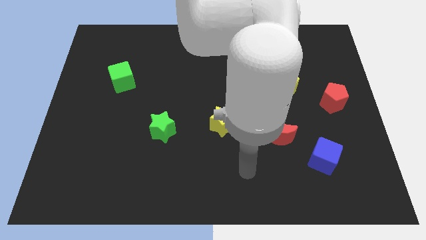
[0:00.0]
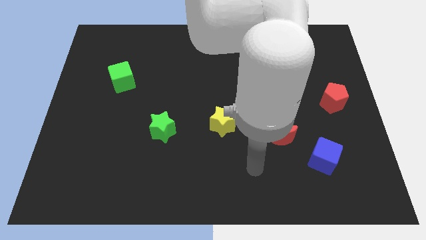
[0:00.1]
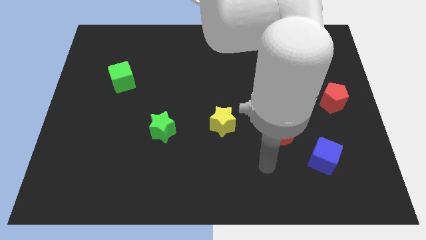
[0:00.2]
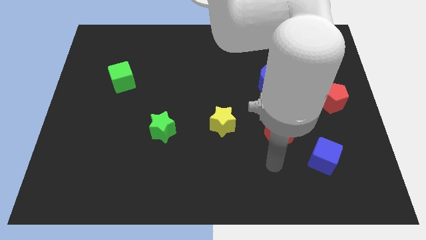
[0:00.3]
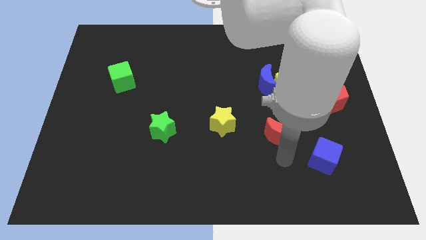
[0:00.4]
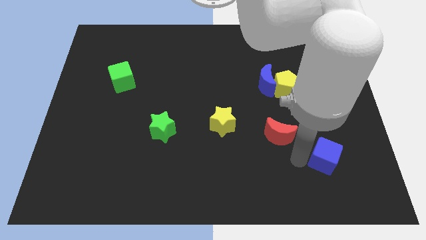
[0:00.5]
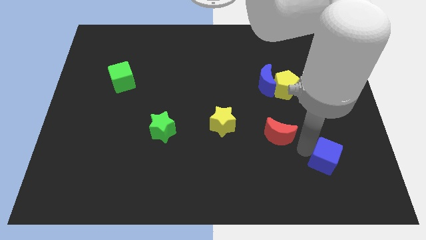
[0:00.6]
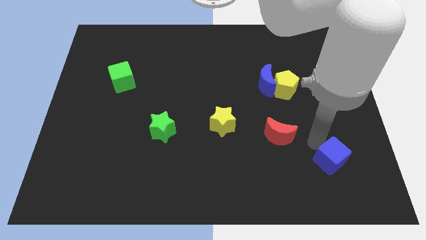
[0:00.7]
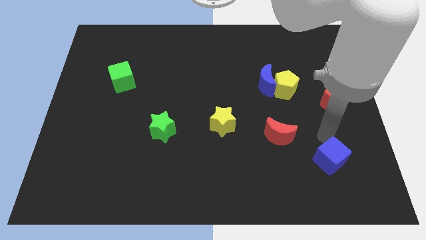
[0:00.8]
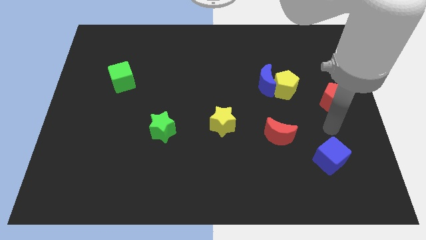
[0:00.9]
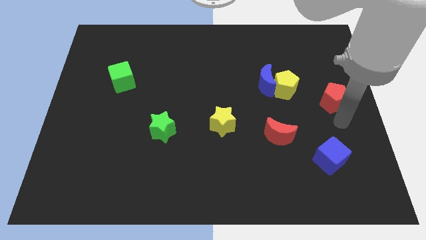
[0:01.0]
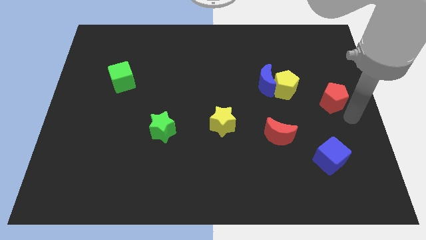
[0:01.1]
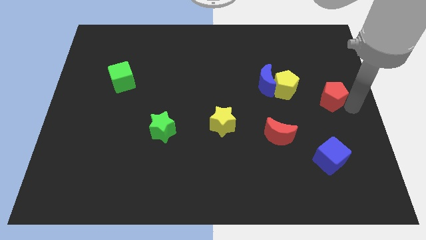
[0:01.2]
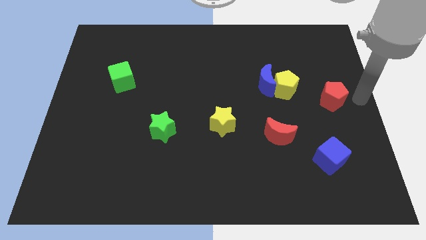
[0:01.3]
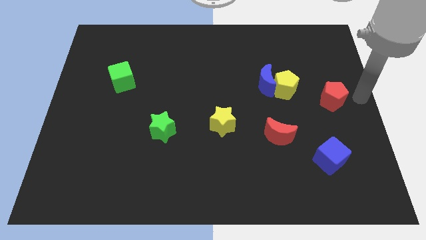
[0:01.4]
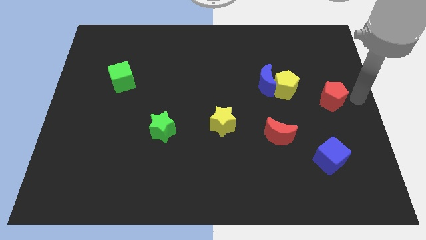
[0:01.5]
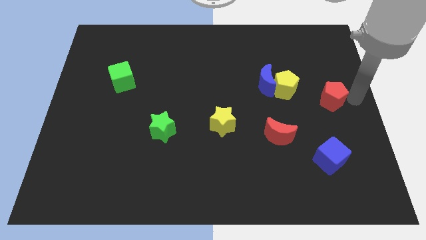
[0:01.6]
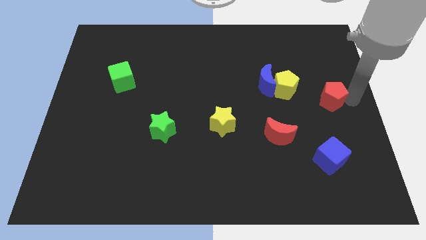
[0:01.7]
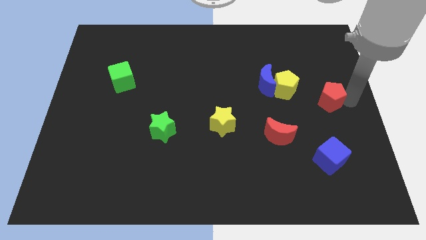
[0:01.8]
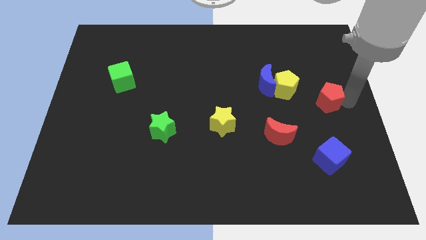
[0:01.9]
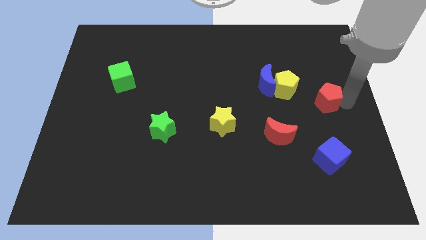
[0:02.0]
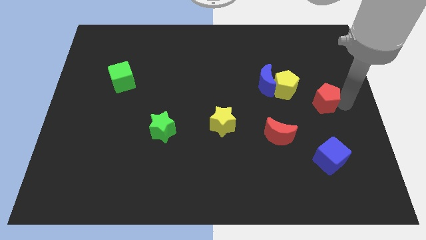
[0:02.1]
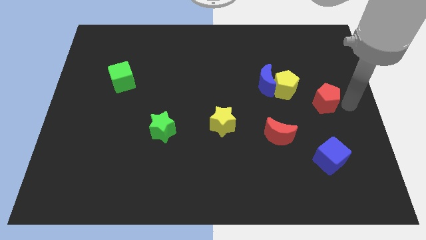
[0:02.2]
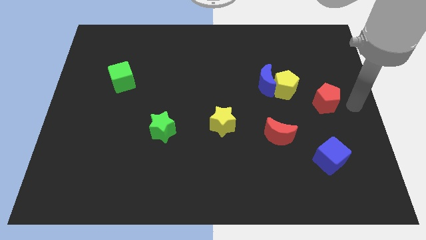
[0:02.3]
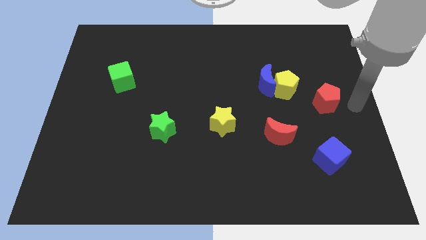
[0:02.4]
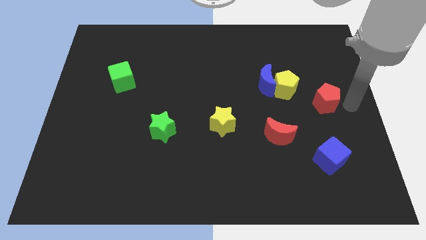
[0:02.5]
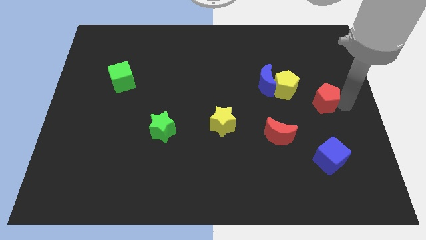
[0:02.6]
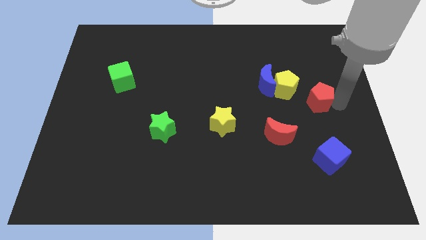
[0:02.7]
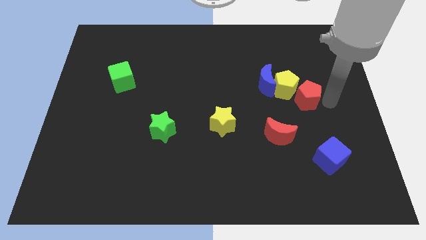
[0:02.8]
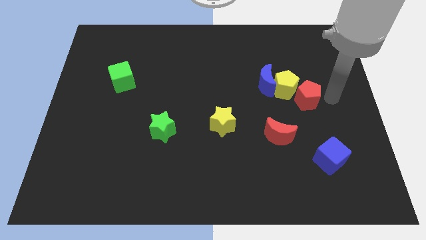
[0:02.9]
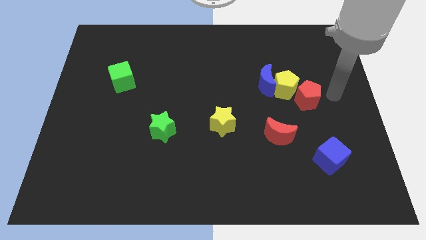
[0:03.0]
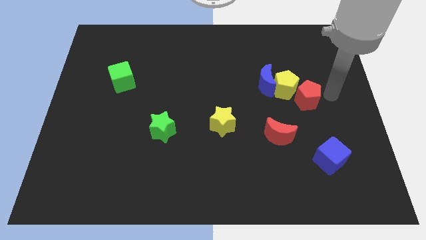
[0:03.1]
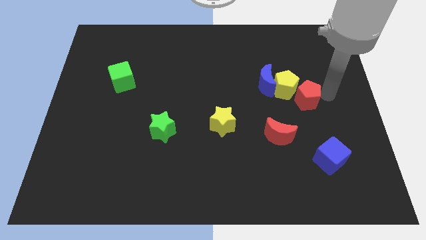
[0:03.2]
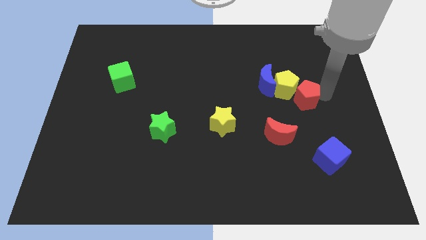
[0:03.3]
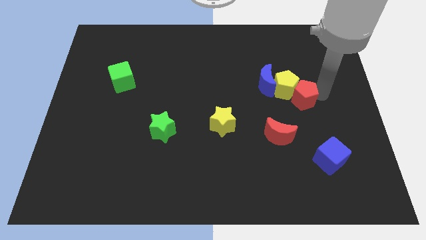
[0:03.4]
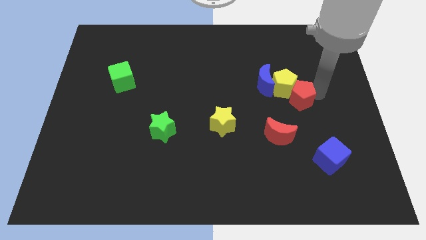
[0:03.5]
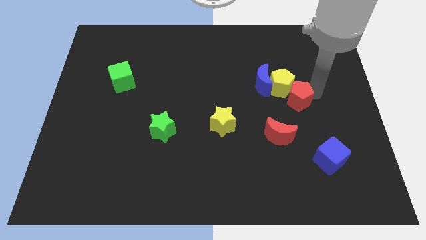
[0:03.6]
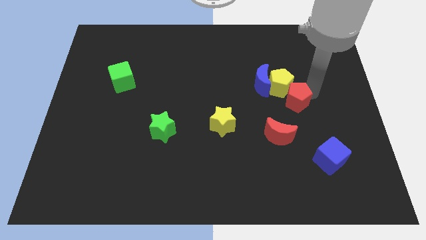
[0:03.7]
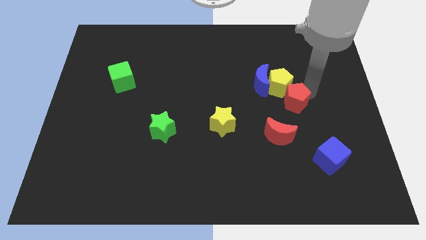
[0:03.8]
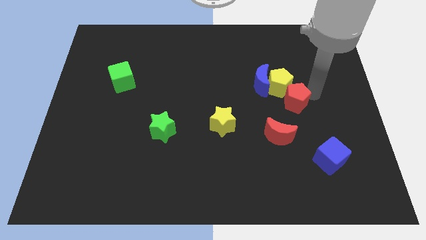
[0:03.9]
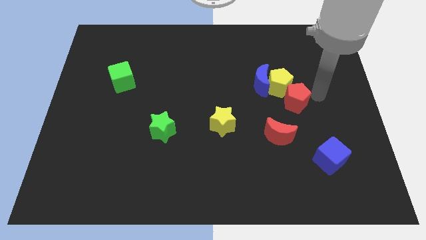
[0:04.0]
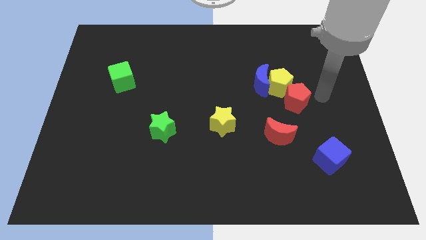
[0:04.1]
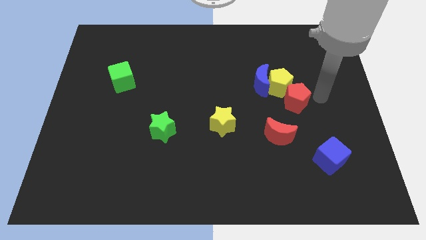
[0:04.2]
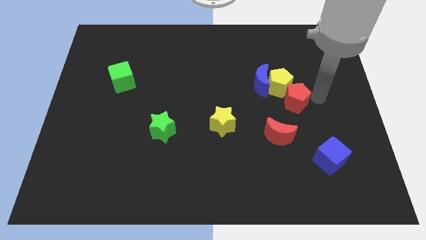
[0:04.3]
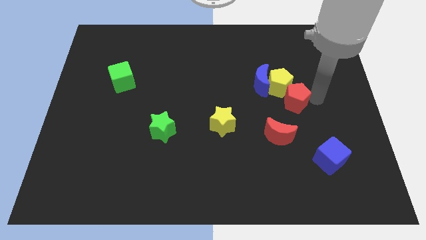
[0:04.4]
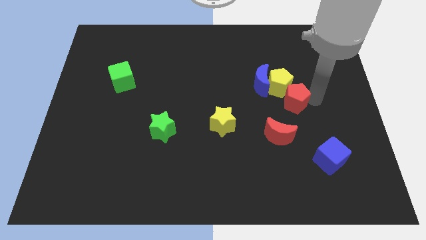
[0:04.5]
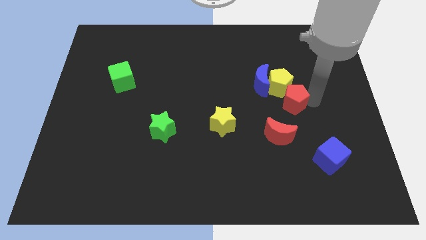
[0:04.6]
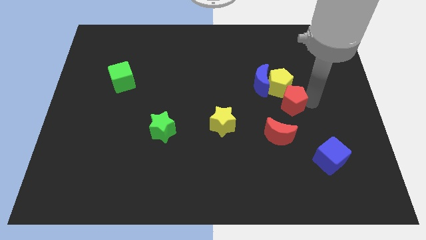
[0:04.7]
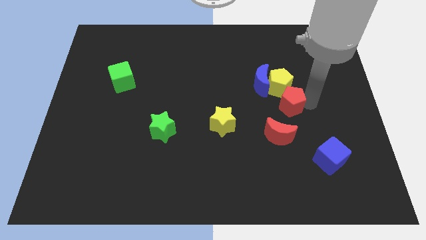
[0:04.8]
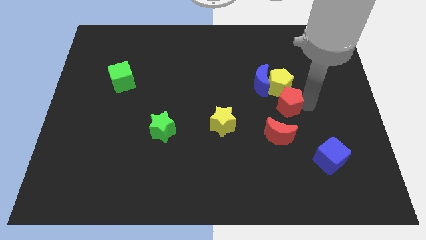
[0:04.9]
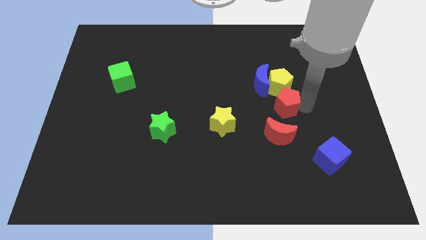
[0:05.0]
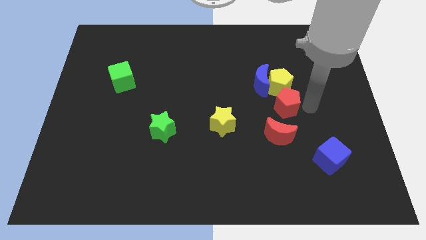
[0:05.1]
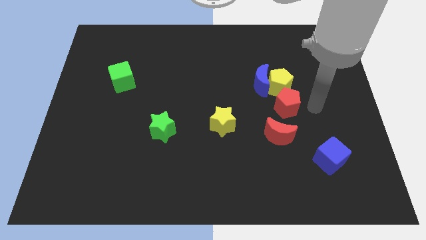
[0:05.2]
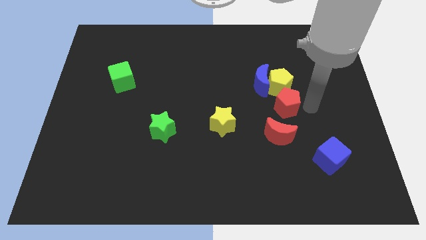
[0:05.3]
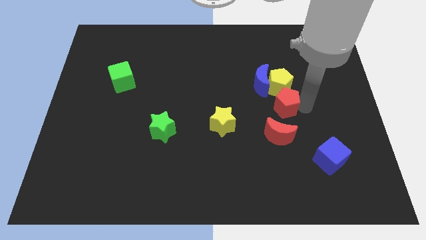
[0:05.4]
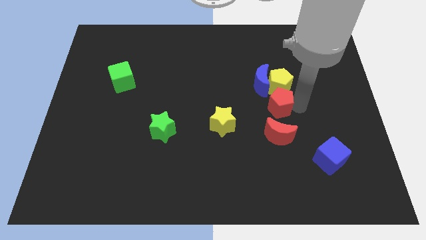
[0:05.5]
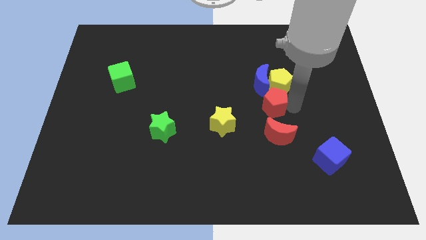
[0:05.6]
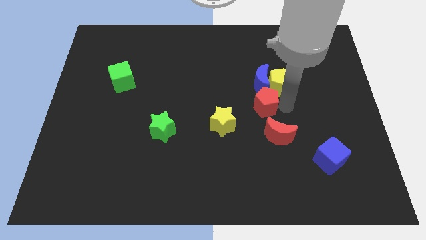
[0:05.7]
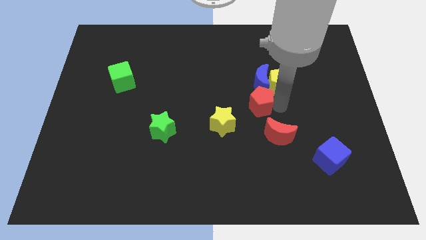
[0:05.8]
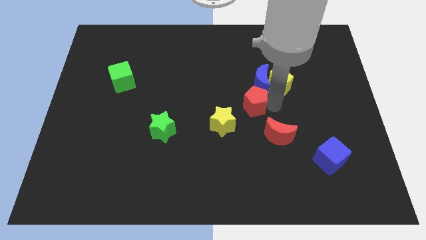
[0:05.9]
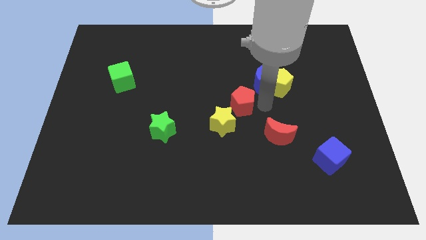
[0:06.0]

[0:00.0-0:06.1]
slide the red pentagon to the left

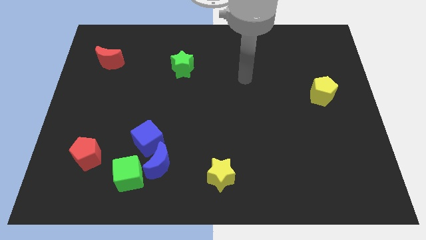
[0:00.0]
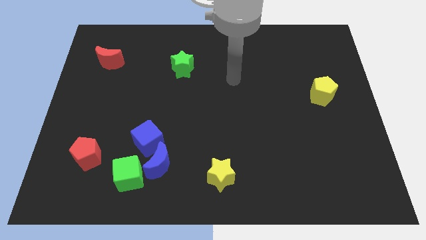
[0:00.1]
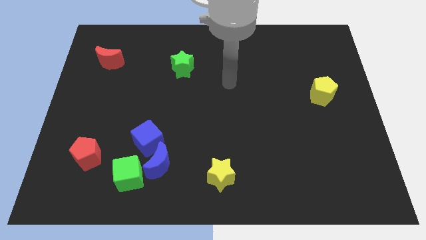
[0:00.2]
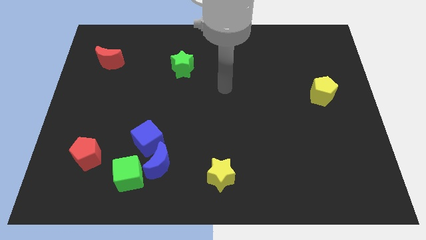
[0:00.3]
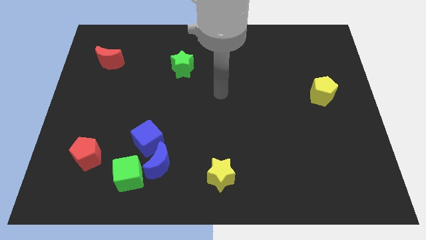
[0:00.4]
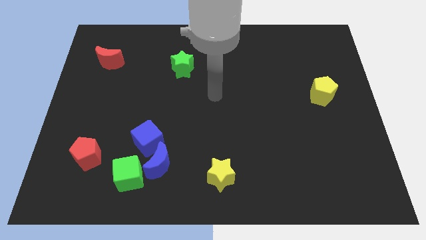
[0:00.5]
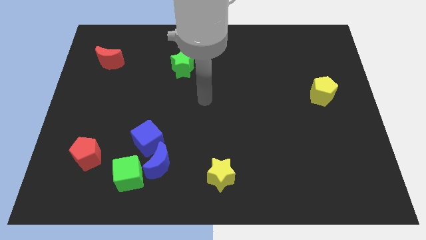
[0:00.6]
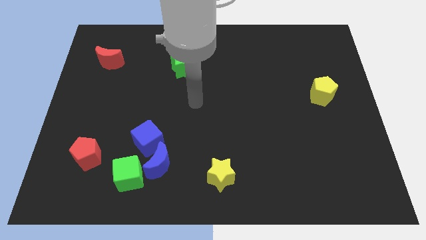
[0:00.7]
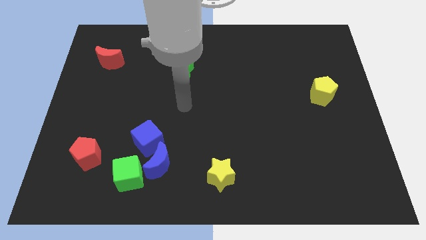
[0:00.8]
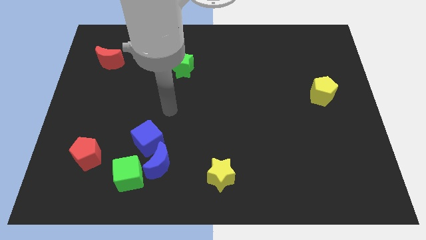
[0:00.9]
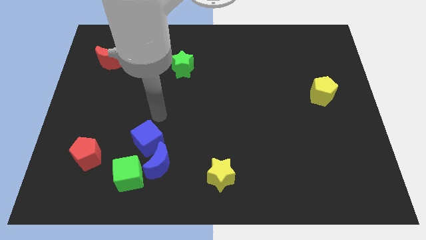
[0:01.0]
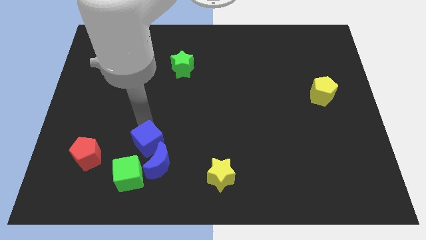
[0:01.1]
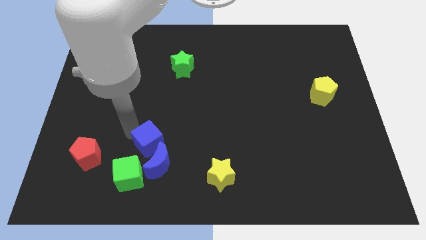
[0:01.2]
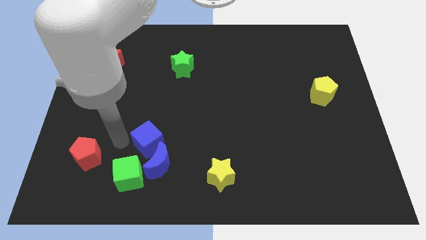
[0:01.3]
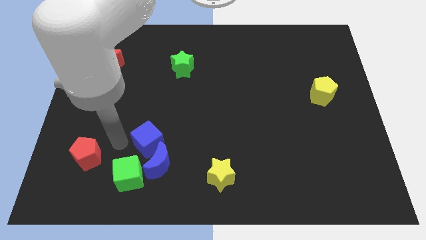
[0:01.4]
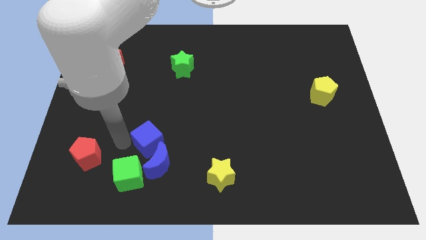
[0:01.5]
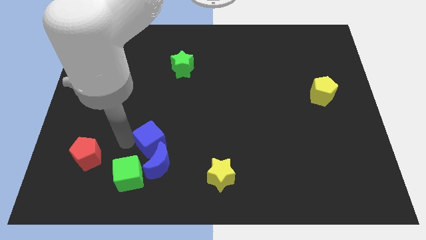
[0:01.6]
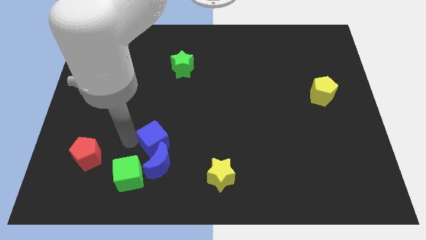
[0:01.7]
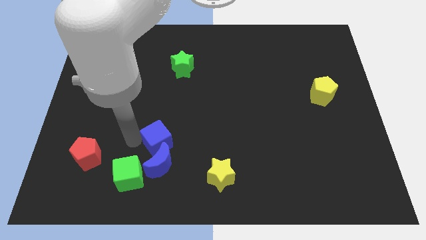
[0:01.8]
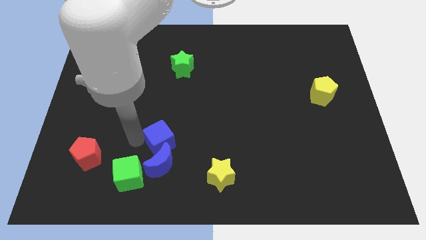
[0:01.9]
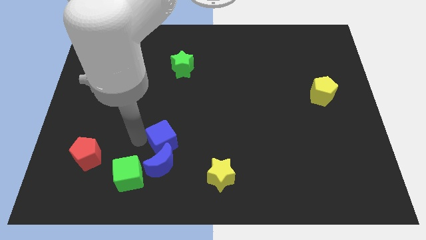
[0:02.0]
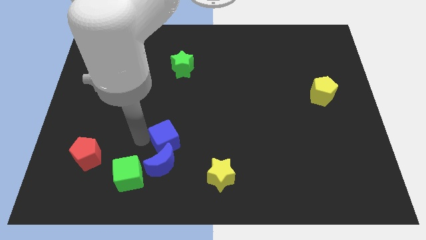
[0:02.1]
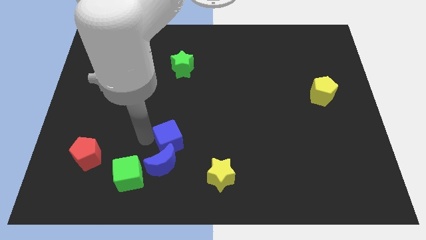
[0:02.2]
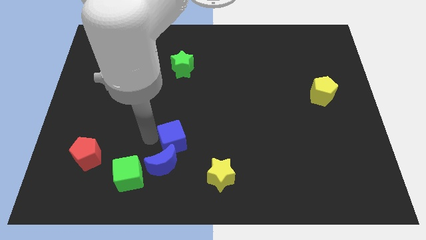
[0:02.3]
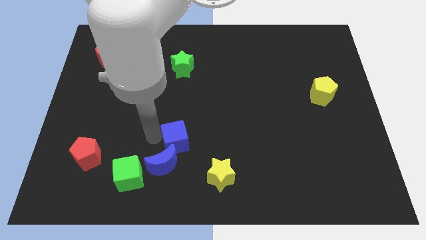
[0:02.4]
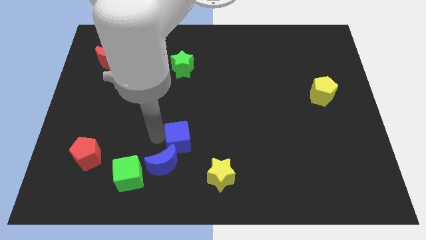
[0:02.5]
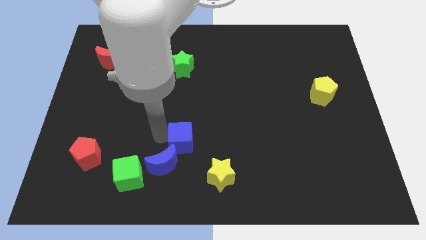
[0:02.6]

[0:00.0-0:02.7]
push the blue cube slightly to the right
